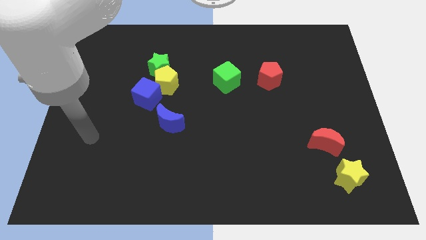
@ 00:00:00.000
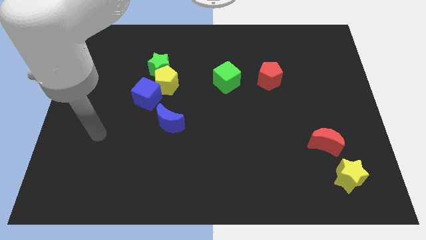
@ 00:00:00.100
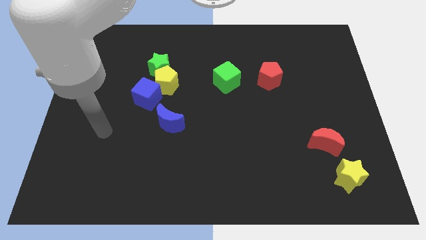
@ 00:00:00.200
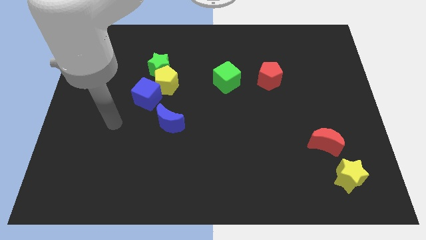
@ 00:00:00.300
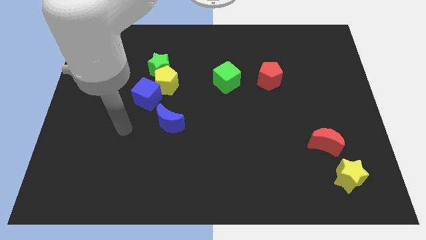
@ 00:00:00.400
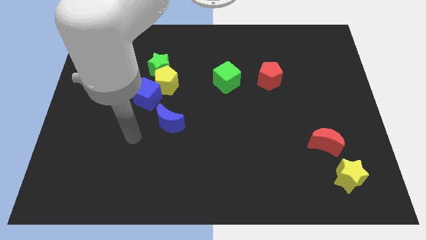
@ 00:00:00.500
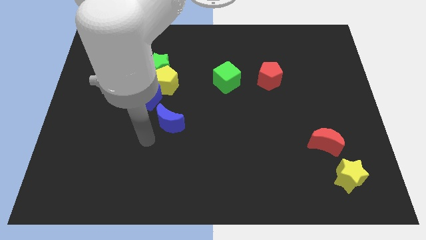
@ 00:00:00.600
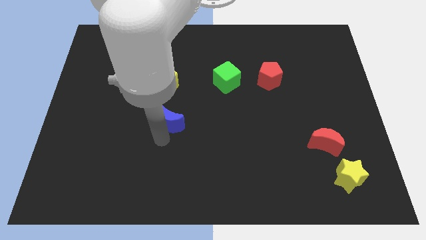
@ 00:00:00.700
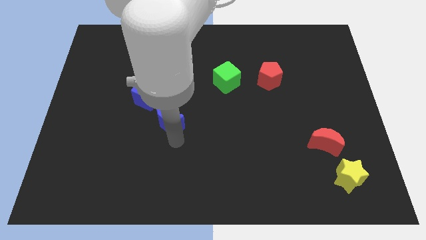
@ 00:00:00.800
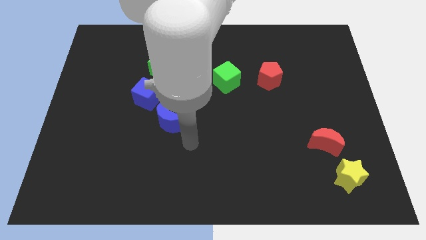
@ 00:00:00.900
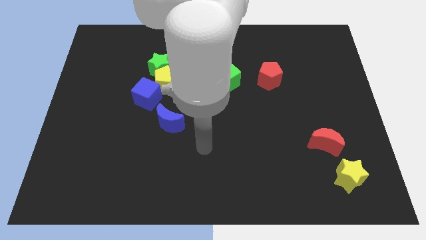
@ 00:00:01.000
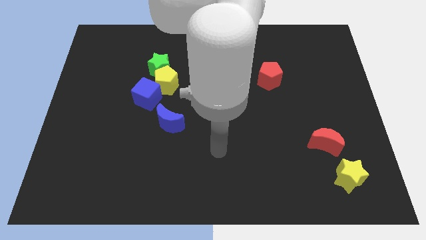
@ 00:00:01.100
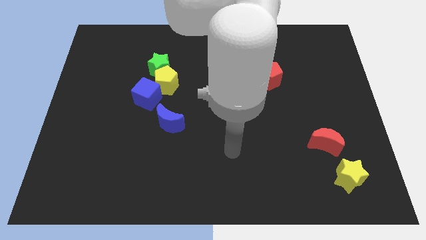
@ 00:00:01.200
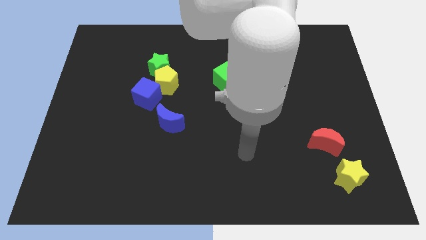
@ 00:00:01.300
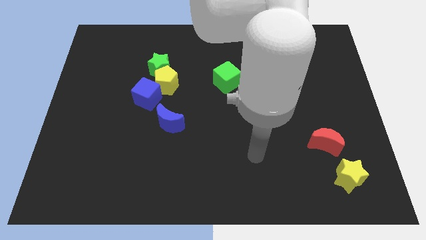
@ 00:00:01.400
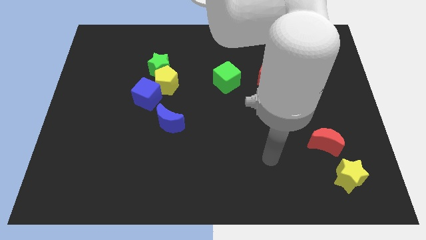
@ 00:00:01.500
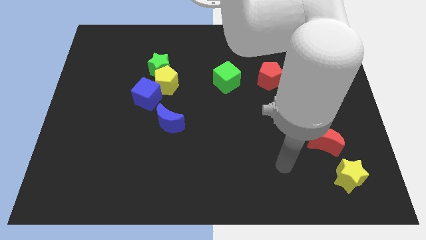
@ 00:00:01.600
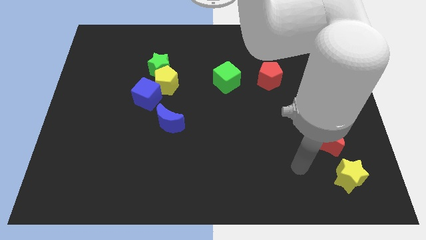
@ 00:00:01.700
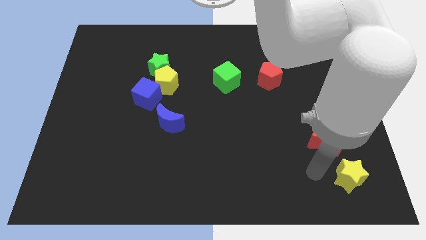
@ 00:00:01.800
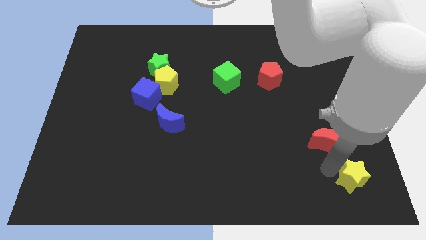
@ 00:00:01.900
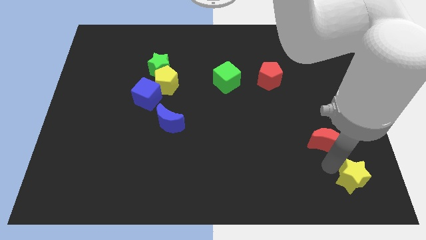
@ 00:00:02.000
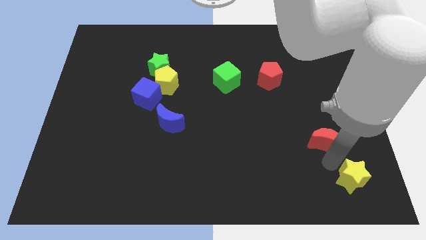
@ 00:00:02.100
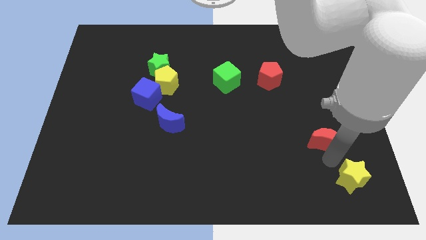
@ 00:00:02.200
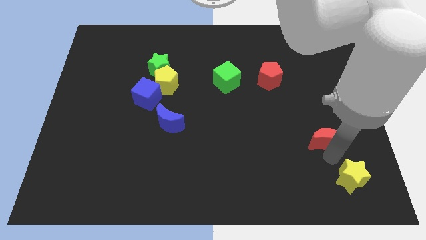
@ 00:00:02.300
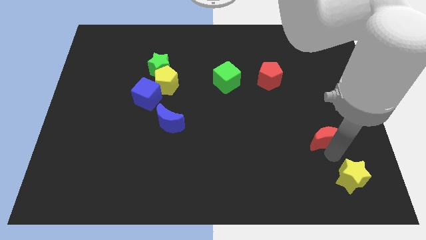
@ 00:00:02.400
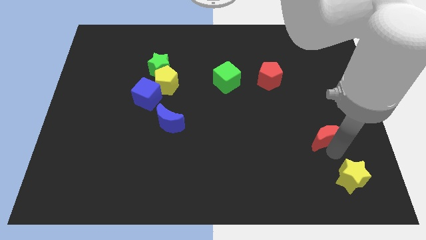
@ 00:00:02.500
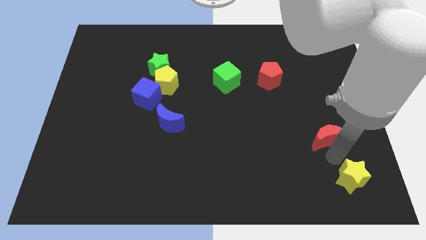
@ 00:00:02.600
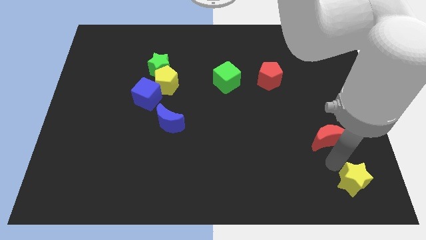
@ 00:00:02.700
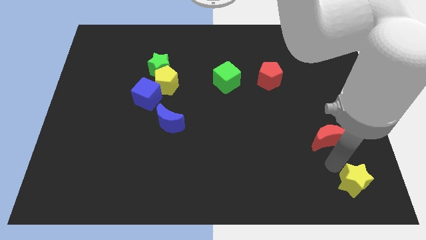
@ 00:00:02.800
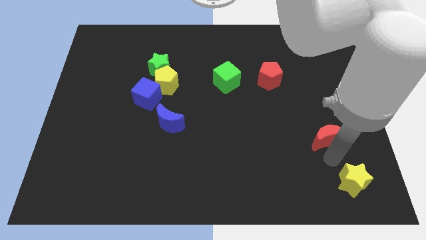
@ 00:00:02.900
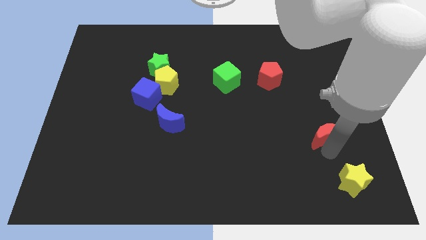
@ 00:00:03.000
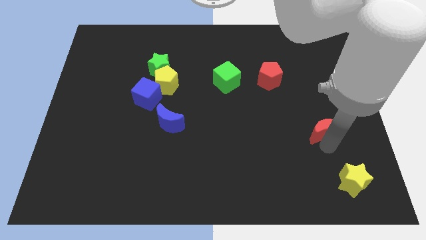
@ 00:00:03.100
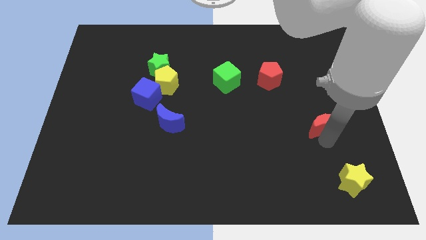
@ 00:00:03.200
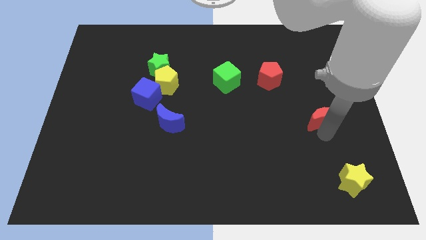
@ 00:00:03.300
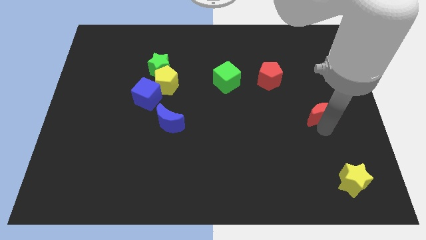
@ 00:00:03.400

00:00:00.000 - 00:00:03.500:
slide the red moon somewhat upwards

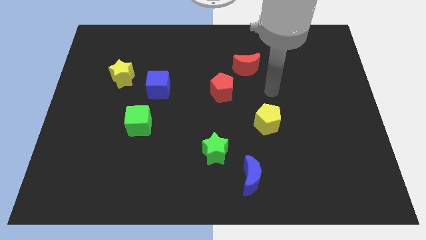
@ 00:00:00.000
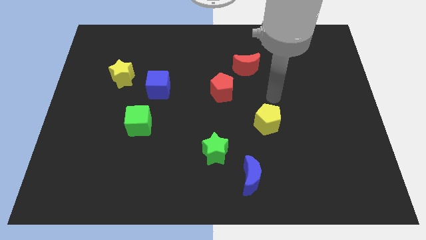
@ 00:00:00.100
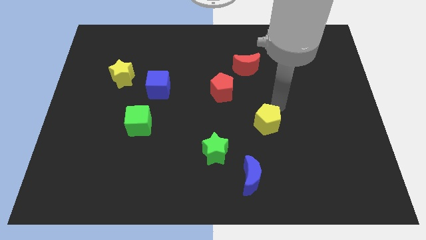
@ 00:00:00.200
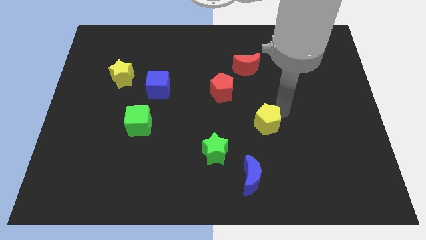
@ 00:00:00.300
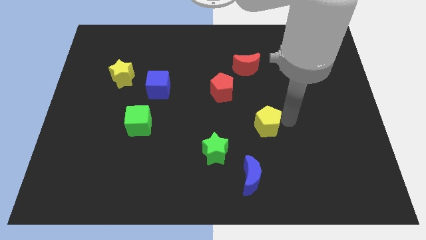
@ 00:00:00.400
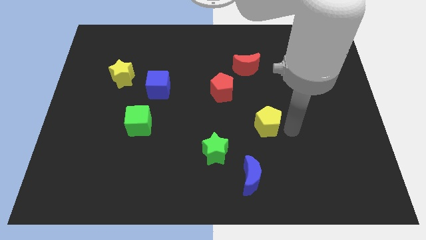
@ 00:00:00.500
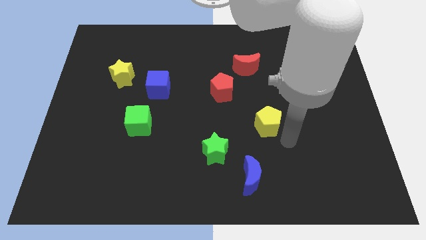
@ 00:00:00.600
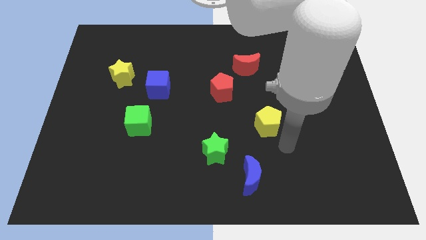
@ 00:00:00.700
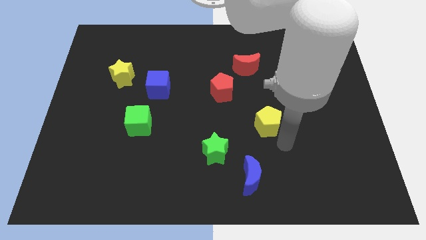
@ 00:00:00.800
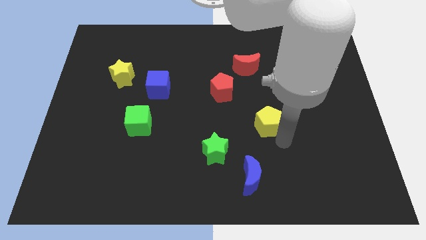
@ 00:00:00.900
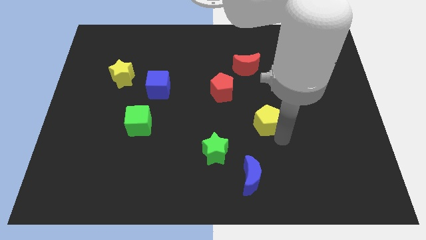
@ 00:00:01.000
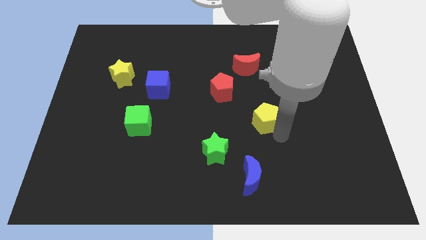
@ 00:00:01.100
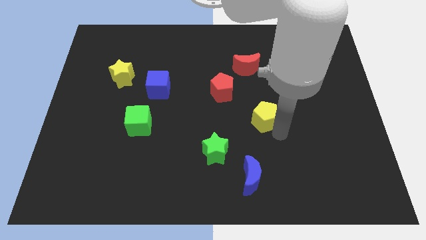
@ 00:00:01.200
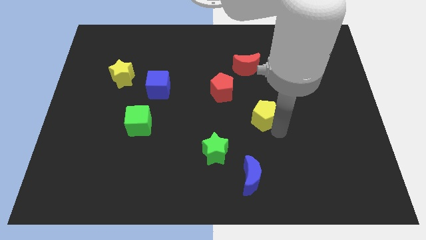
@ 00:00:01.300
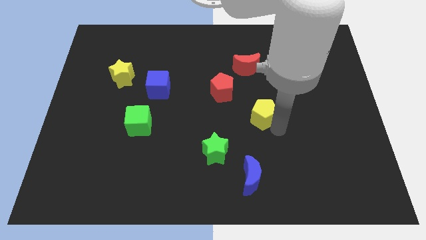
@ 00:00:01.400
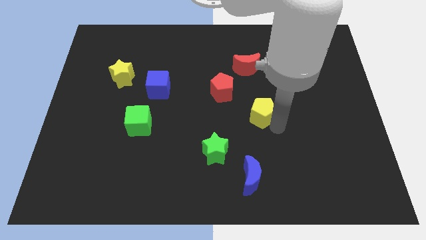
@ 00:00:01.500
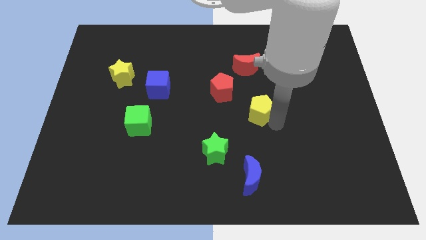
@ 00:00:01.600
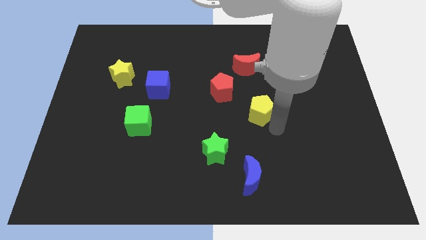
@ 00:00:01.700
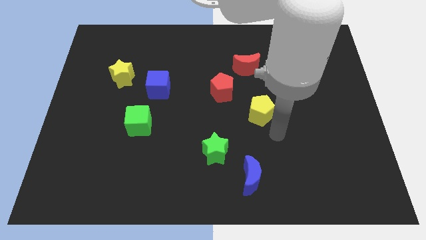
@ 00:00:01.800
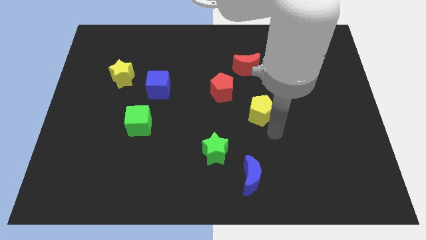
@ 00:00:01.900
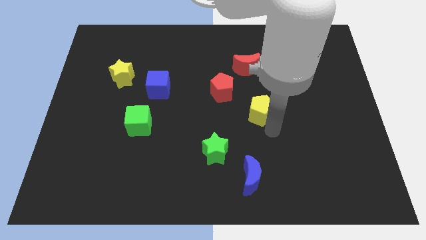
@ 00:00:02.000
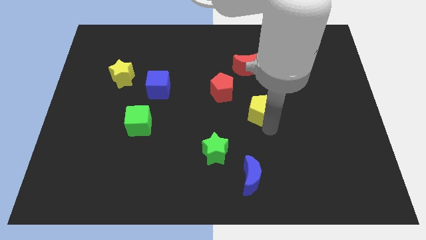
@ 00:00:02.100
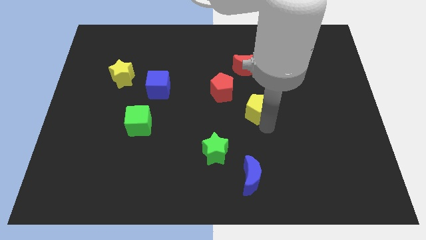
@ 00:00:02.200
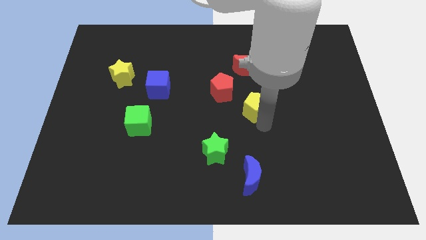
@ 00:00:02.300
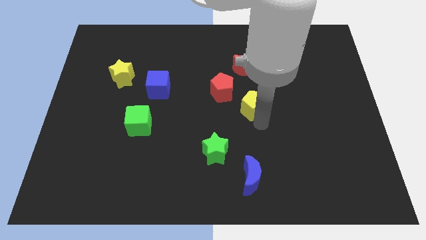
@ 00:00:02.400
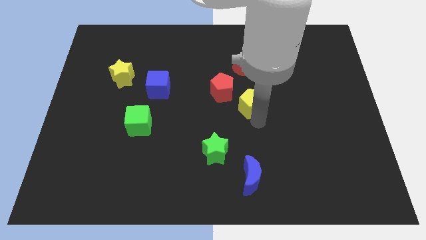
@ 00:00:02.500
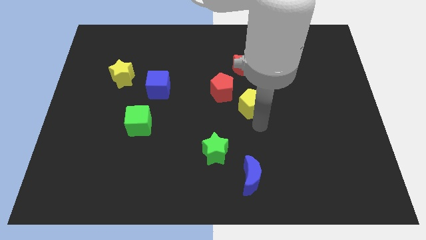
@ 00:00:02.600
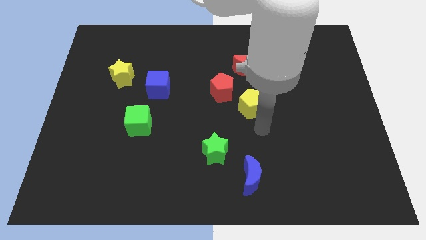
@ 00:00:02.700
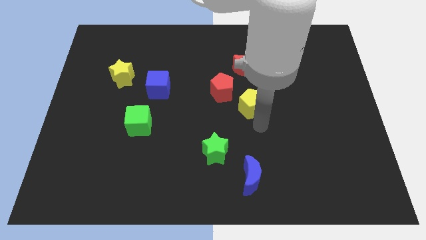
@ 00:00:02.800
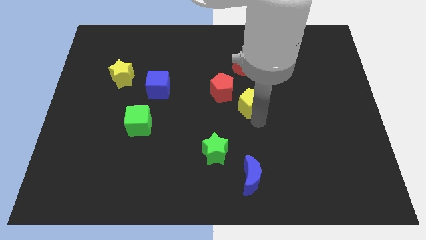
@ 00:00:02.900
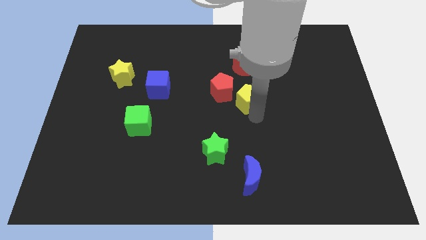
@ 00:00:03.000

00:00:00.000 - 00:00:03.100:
slightly slide the yellow pentagon diagonally up and left

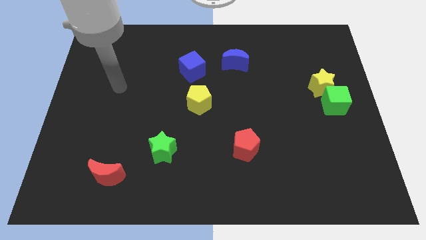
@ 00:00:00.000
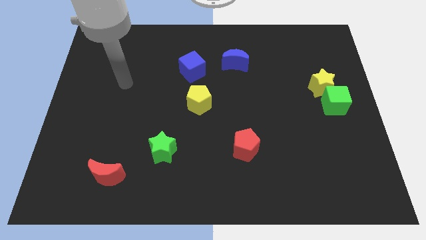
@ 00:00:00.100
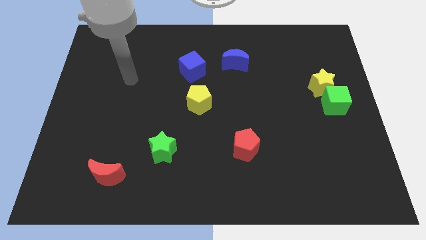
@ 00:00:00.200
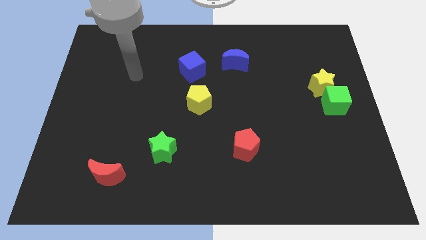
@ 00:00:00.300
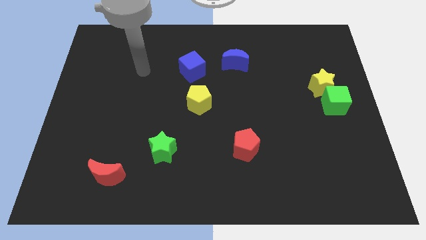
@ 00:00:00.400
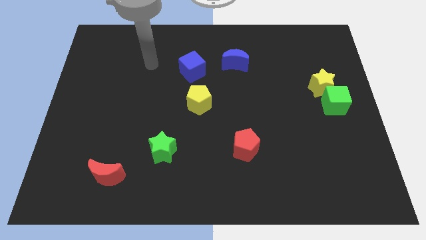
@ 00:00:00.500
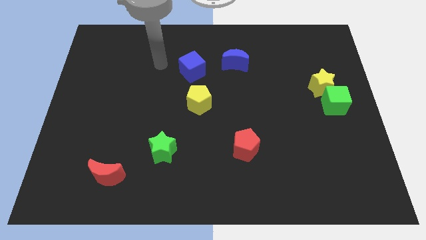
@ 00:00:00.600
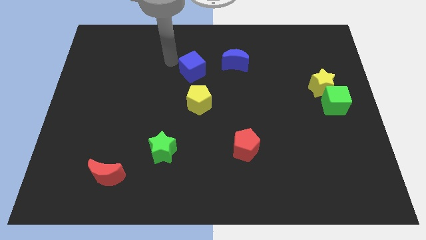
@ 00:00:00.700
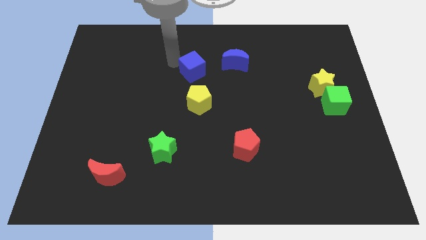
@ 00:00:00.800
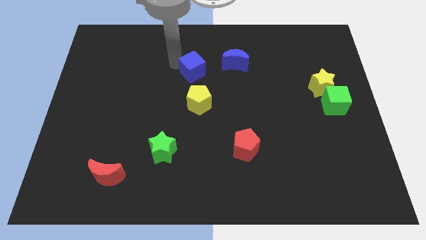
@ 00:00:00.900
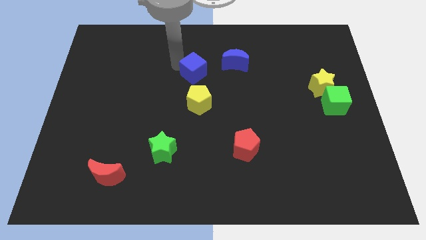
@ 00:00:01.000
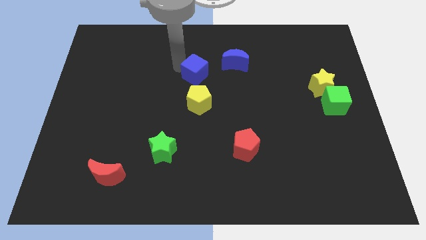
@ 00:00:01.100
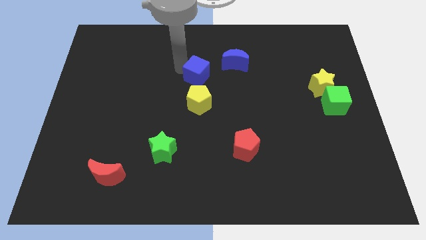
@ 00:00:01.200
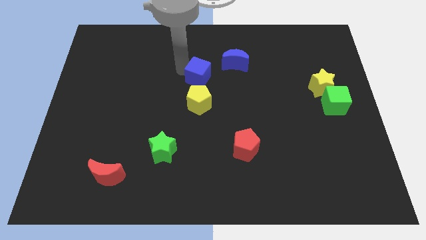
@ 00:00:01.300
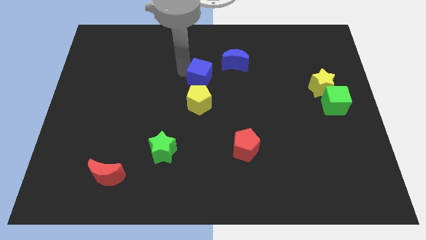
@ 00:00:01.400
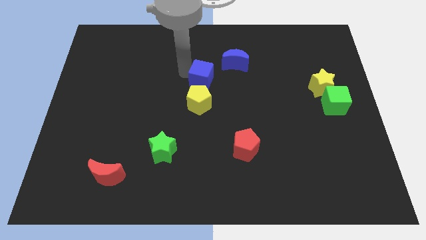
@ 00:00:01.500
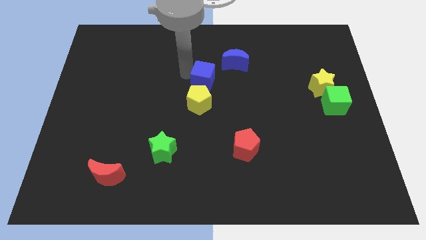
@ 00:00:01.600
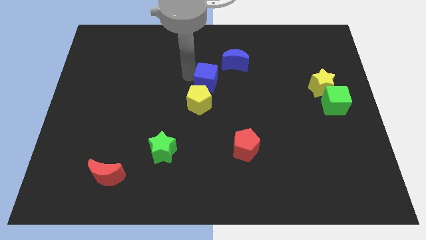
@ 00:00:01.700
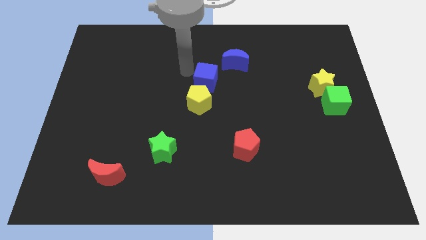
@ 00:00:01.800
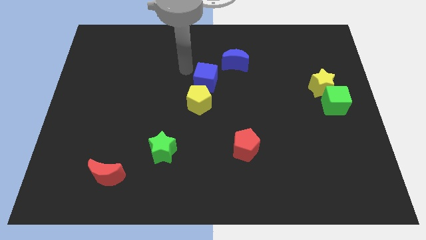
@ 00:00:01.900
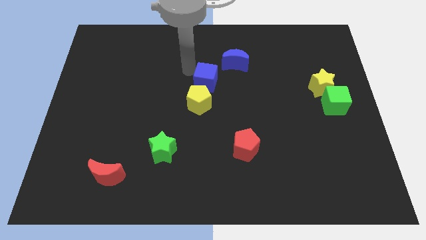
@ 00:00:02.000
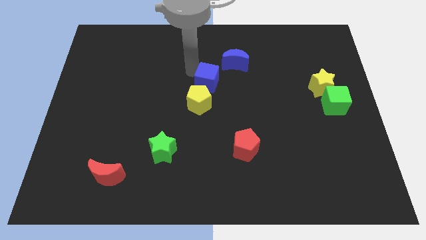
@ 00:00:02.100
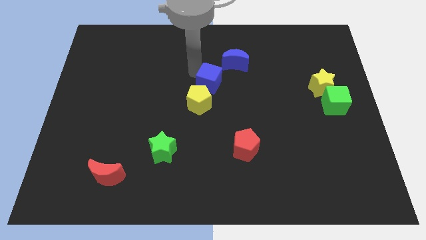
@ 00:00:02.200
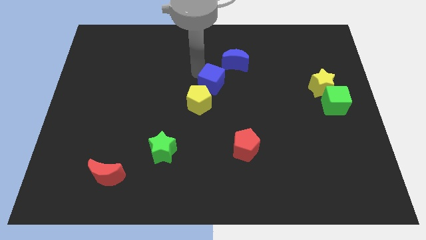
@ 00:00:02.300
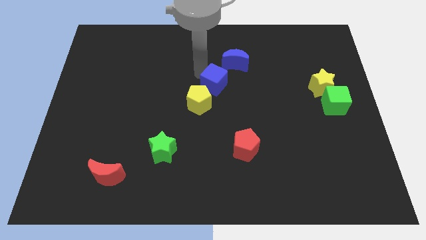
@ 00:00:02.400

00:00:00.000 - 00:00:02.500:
push the blue cube down and right diagonally a little
